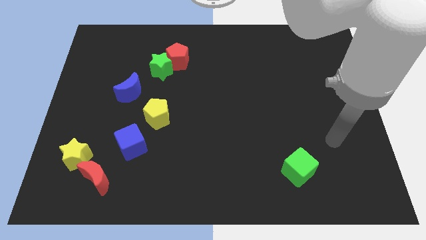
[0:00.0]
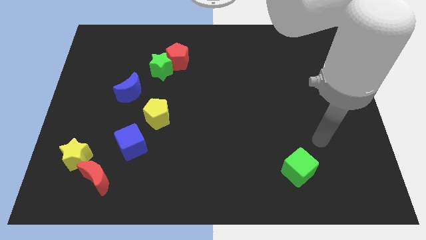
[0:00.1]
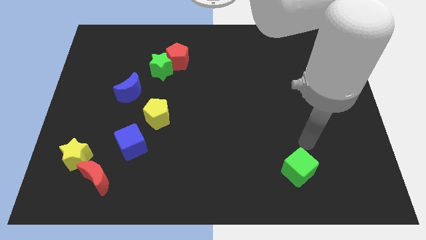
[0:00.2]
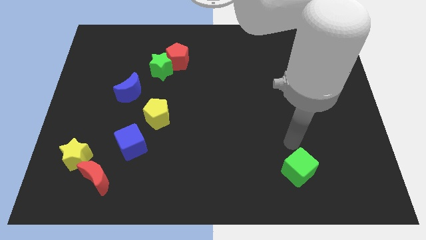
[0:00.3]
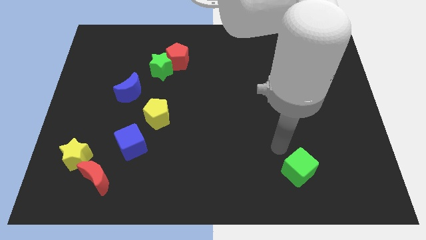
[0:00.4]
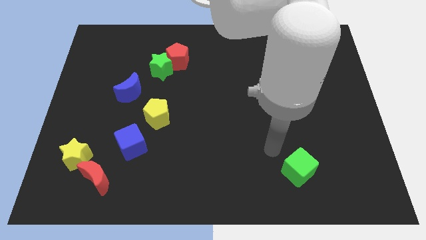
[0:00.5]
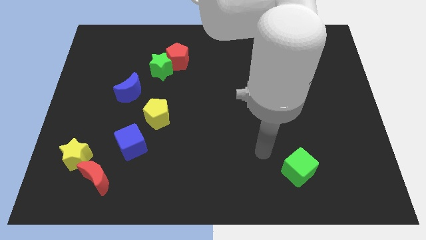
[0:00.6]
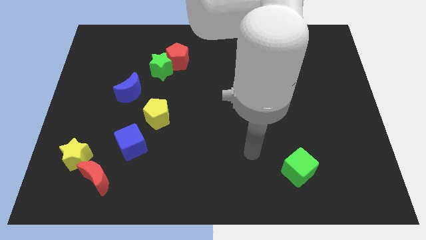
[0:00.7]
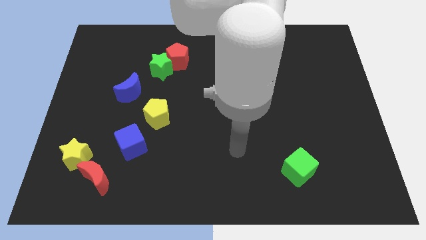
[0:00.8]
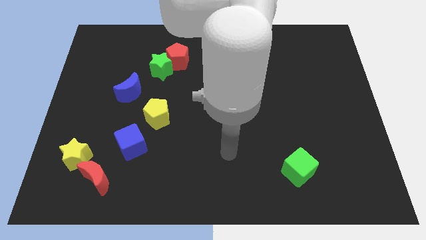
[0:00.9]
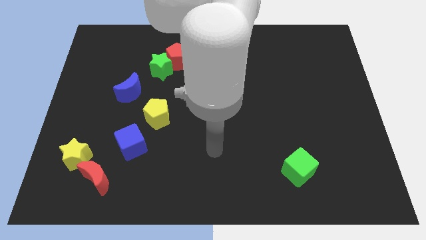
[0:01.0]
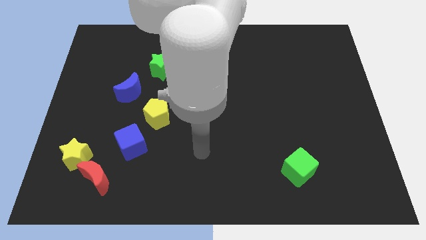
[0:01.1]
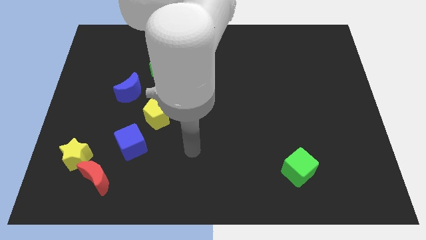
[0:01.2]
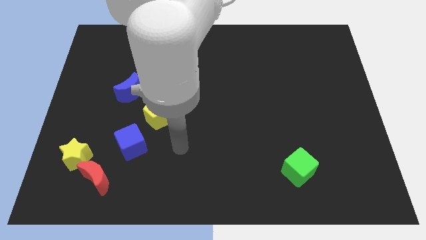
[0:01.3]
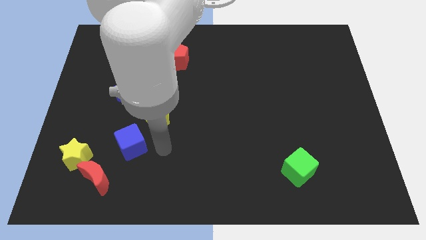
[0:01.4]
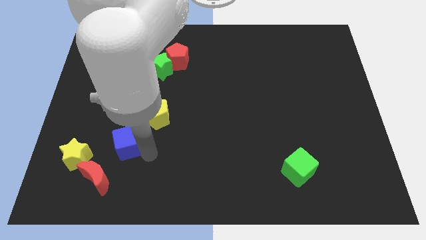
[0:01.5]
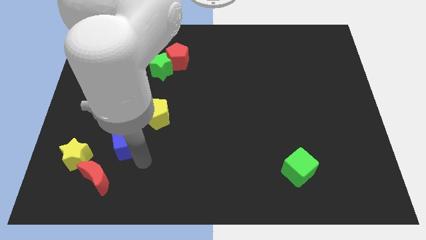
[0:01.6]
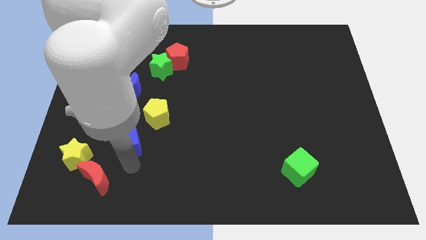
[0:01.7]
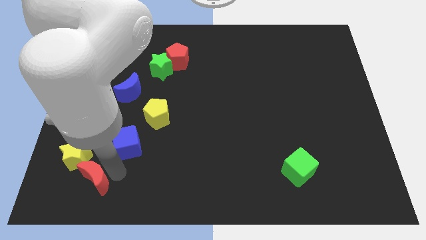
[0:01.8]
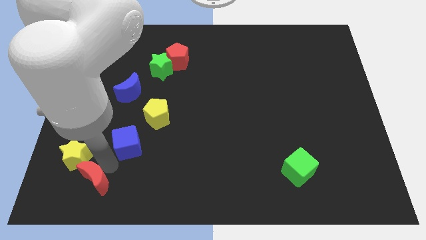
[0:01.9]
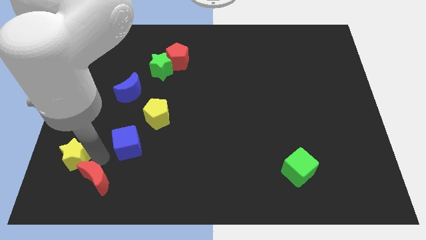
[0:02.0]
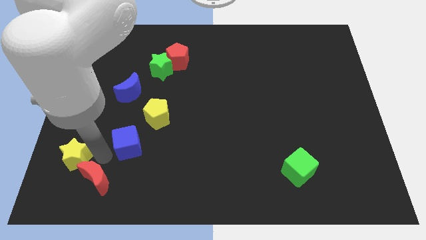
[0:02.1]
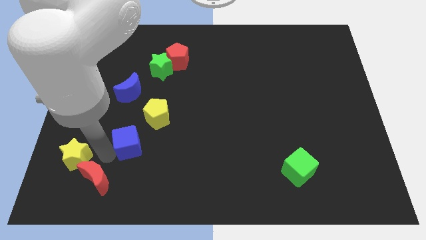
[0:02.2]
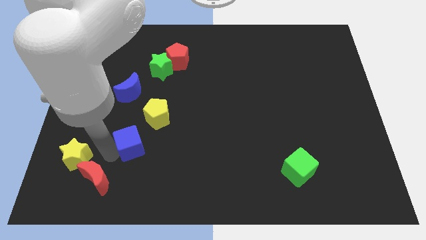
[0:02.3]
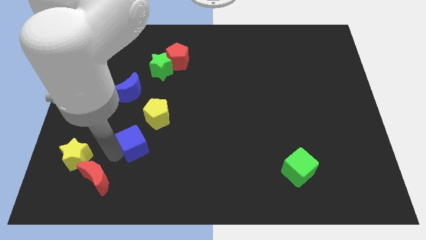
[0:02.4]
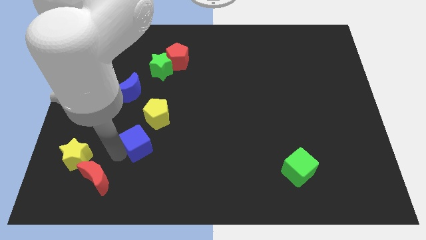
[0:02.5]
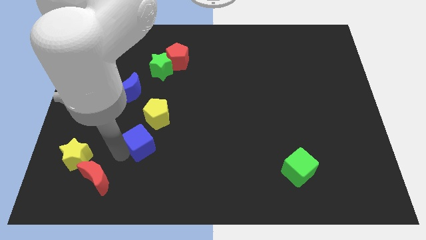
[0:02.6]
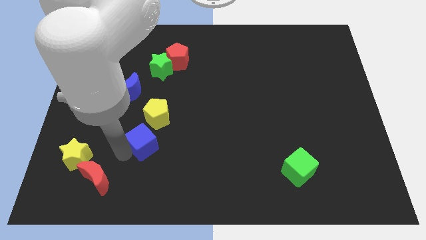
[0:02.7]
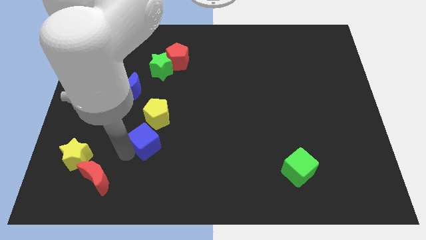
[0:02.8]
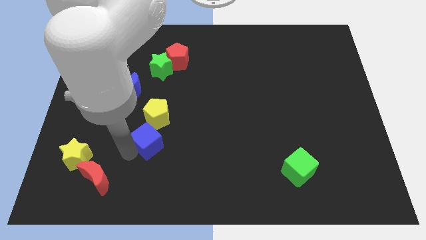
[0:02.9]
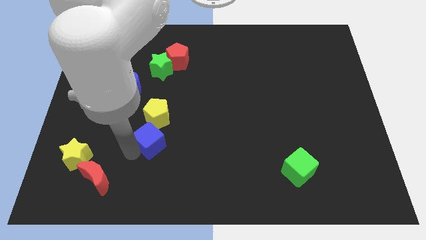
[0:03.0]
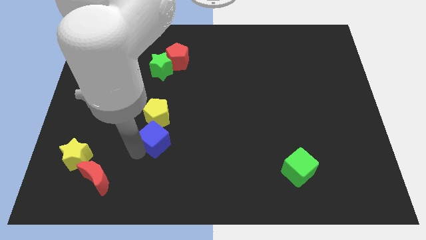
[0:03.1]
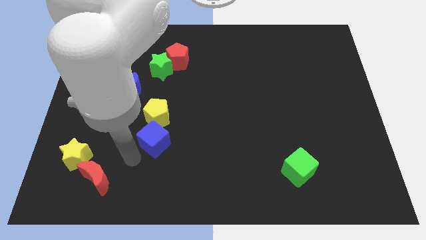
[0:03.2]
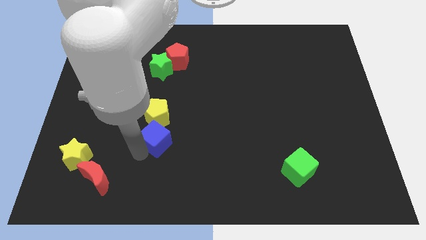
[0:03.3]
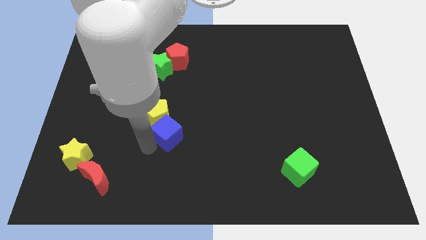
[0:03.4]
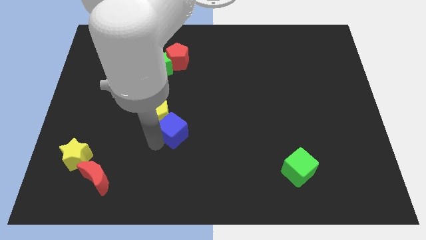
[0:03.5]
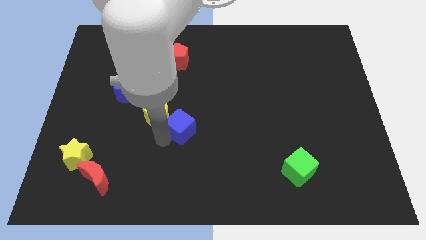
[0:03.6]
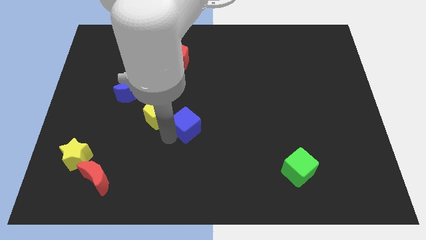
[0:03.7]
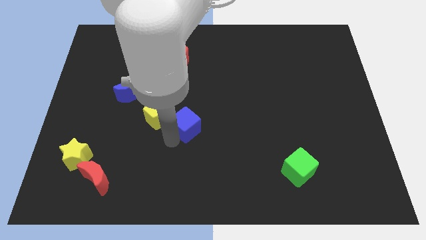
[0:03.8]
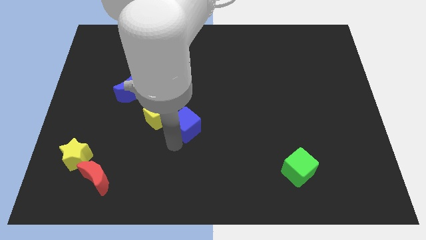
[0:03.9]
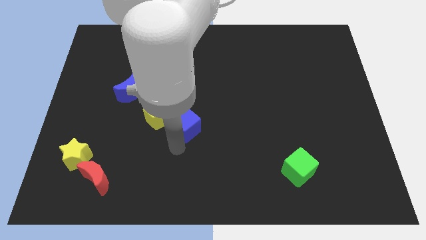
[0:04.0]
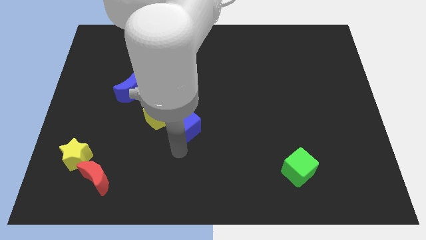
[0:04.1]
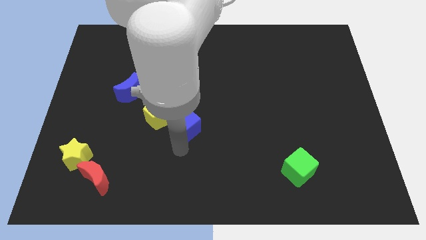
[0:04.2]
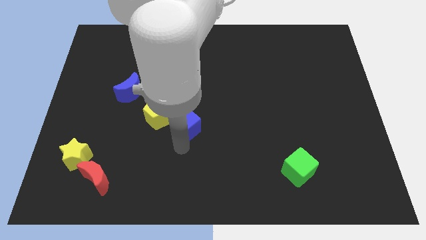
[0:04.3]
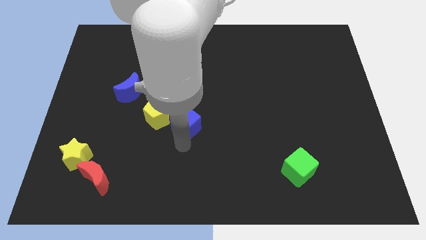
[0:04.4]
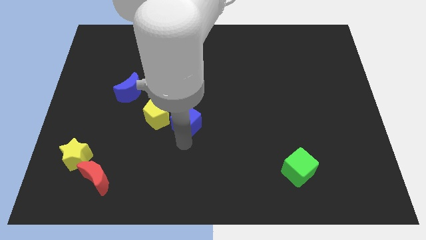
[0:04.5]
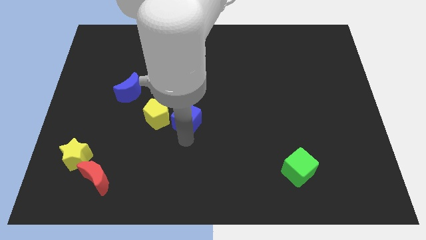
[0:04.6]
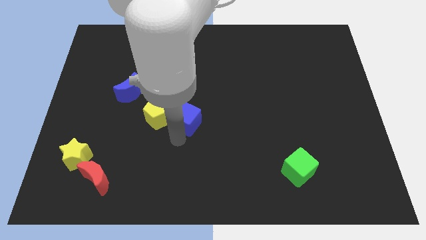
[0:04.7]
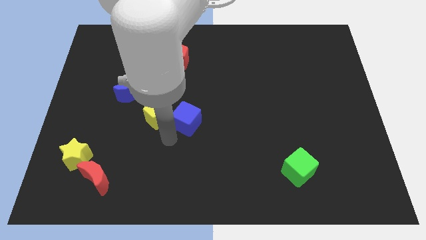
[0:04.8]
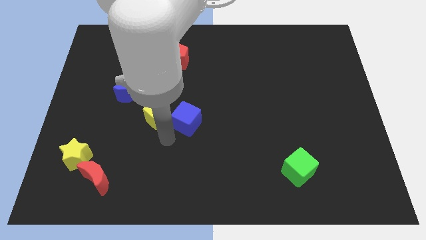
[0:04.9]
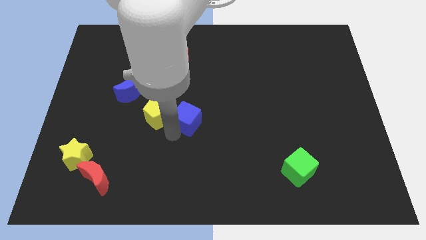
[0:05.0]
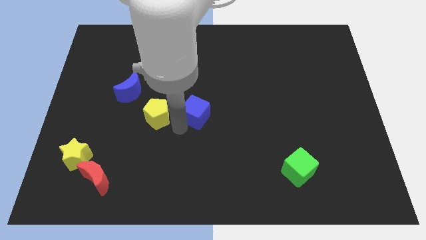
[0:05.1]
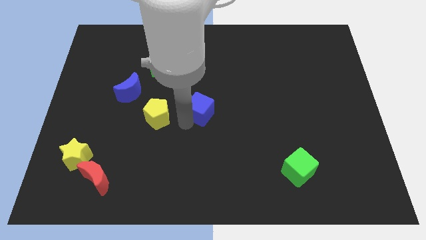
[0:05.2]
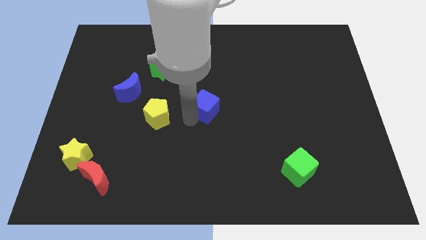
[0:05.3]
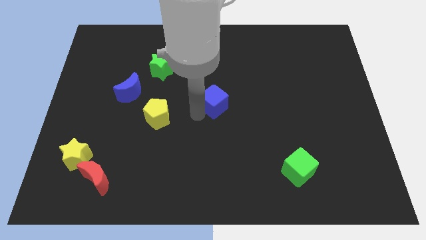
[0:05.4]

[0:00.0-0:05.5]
move the blue cube diagonally up and to the right

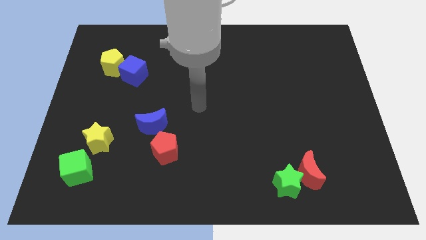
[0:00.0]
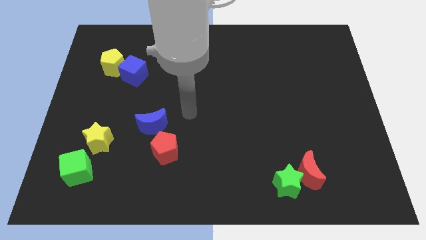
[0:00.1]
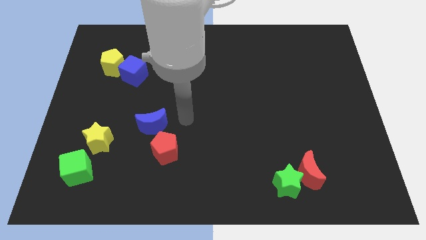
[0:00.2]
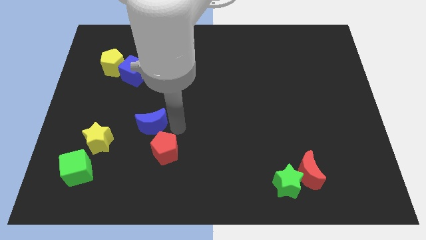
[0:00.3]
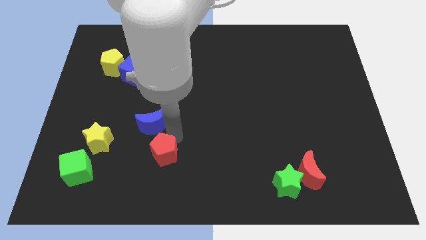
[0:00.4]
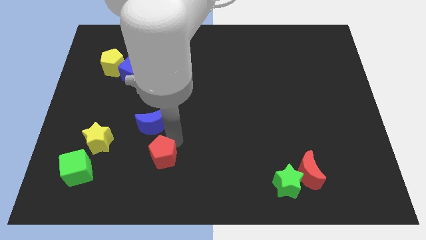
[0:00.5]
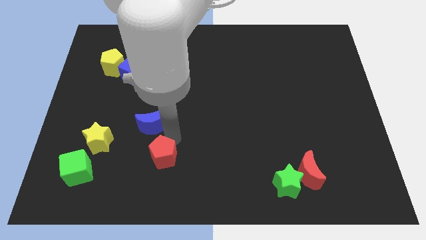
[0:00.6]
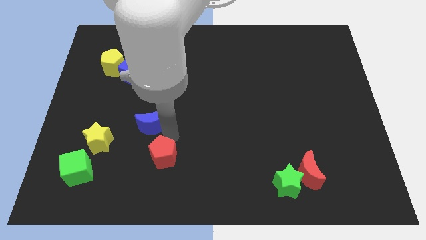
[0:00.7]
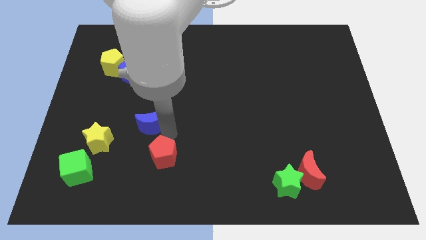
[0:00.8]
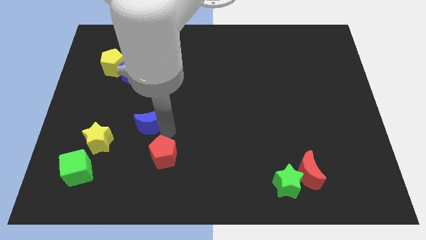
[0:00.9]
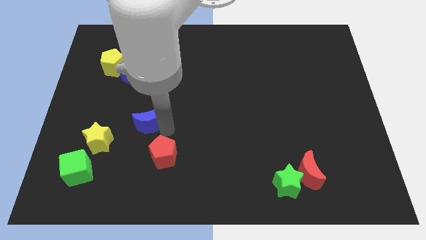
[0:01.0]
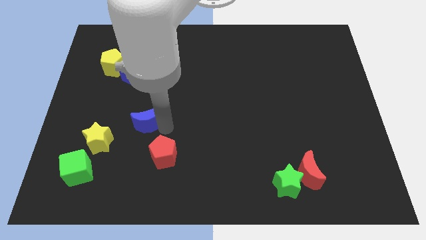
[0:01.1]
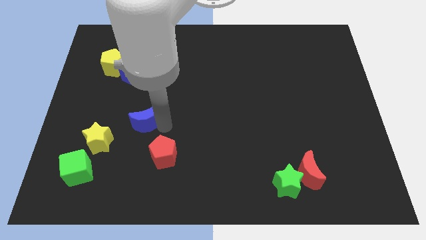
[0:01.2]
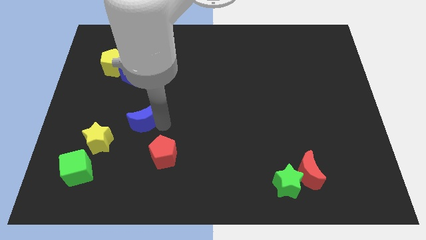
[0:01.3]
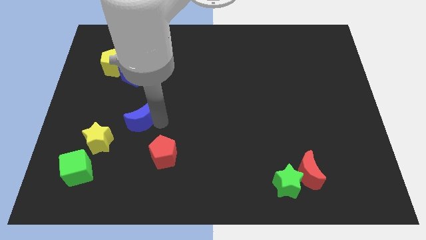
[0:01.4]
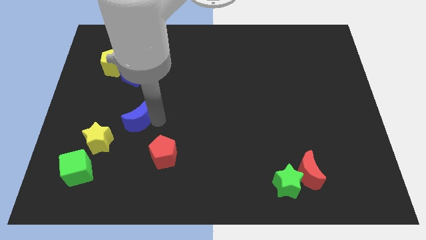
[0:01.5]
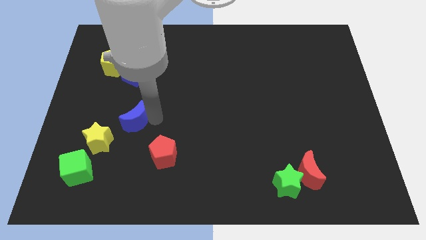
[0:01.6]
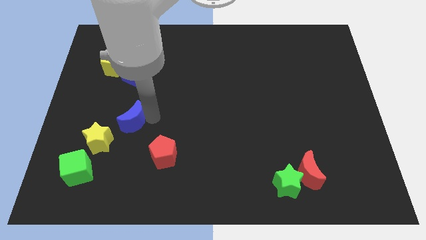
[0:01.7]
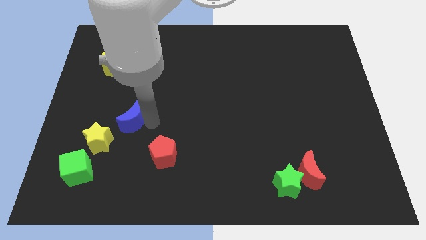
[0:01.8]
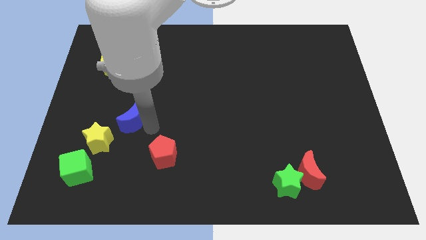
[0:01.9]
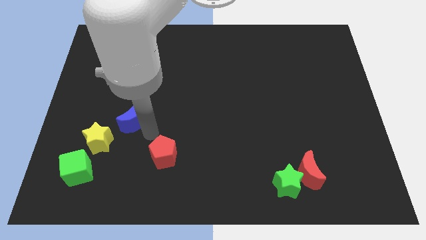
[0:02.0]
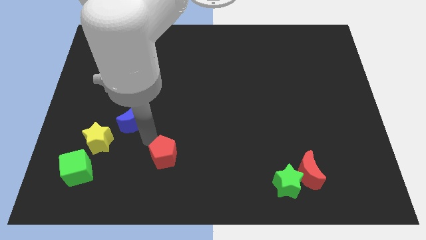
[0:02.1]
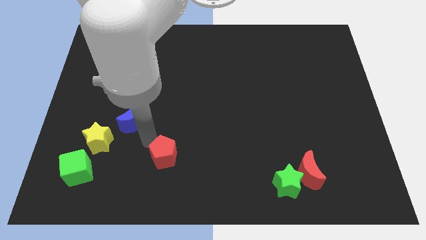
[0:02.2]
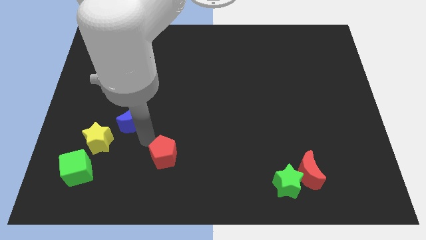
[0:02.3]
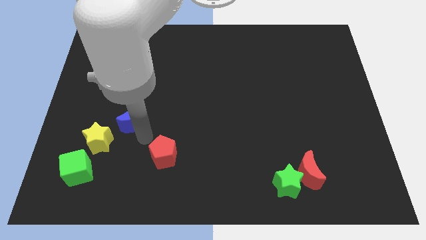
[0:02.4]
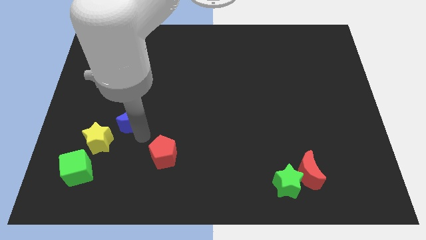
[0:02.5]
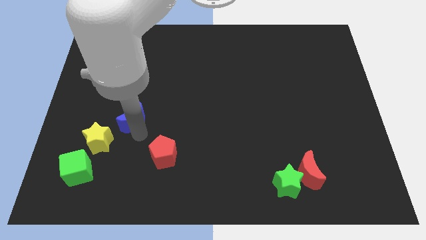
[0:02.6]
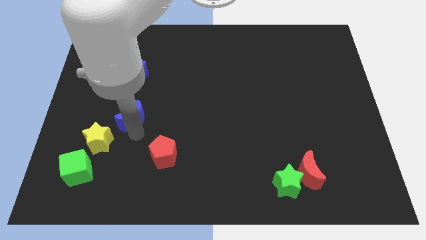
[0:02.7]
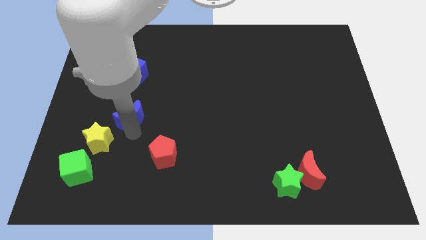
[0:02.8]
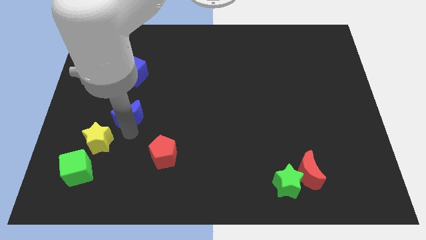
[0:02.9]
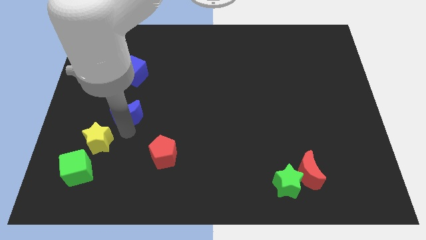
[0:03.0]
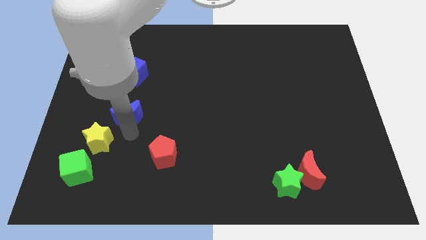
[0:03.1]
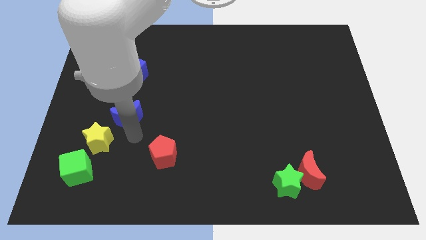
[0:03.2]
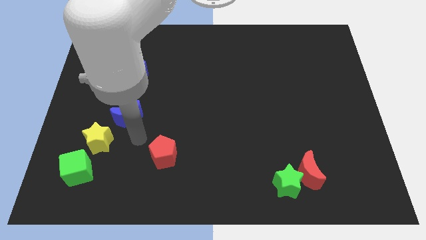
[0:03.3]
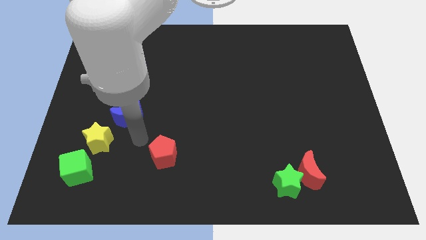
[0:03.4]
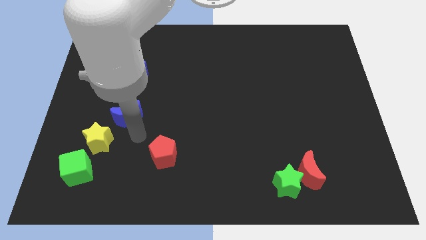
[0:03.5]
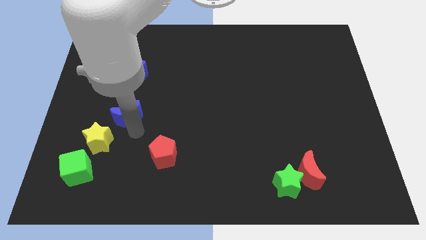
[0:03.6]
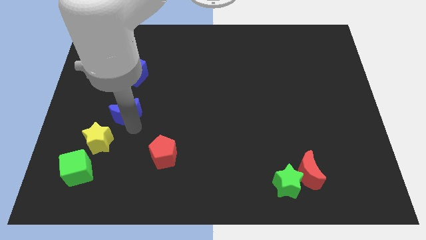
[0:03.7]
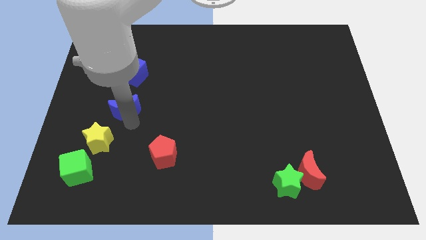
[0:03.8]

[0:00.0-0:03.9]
slightly push the blue moon diagonally up and to the left
